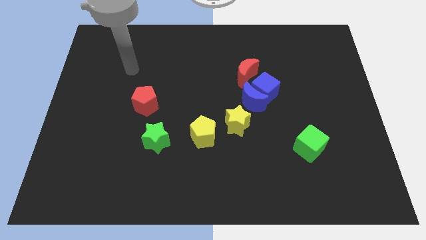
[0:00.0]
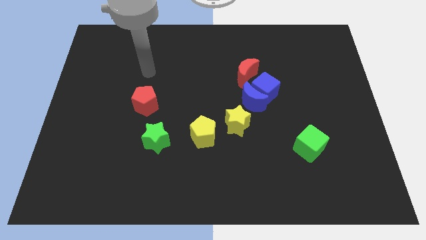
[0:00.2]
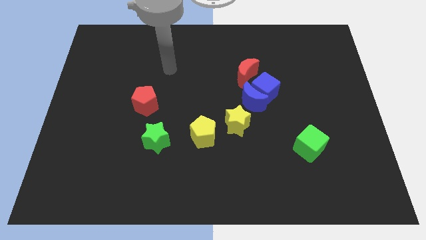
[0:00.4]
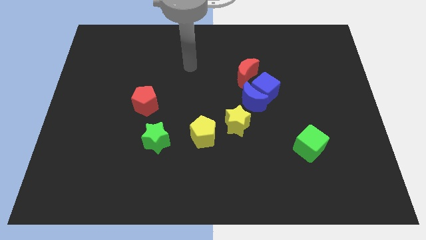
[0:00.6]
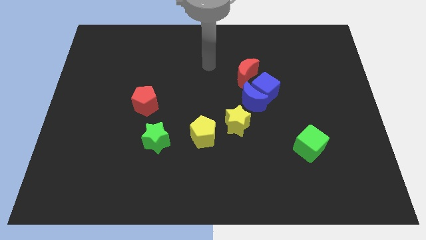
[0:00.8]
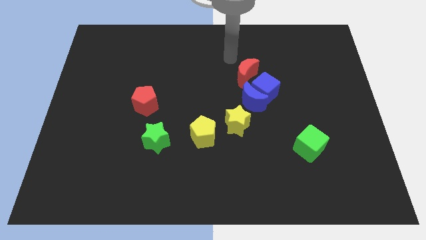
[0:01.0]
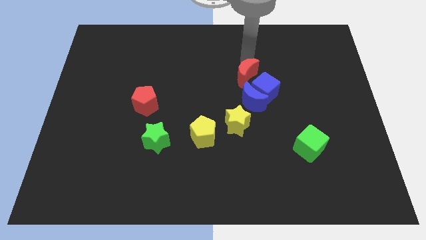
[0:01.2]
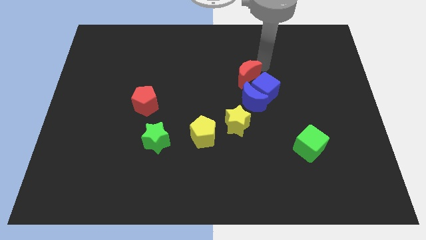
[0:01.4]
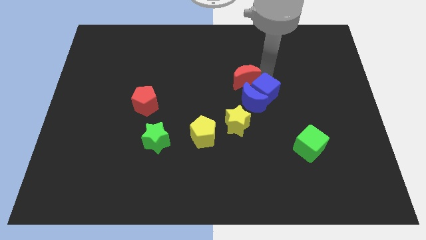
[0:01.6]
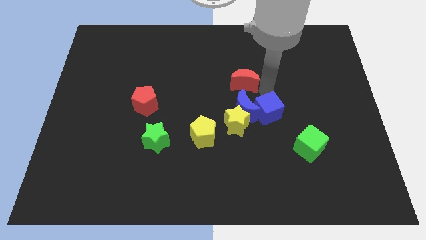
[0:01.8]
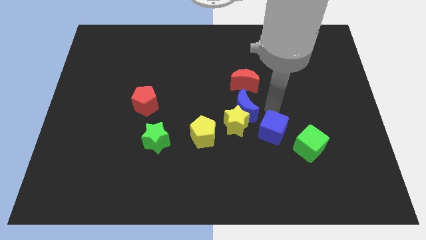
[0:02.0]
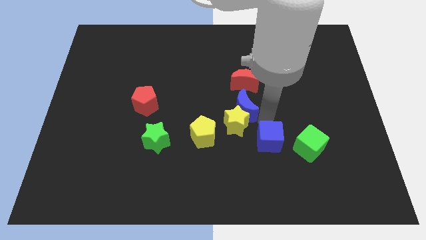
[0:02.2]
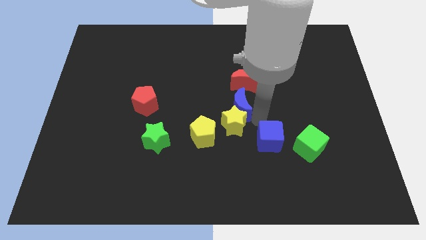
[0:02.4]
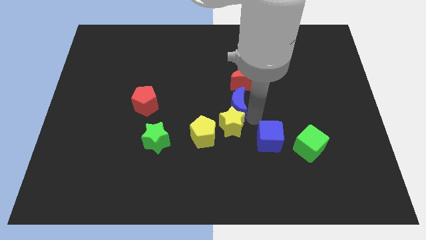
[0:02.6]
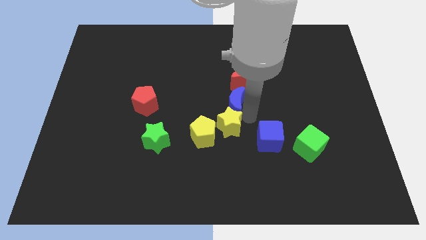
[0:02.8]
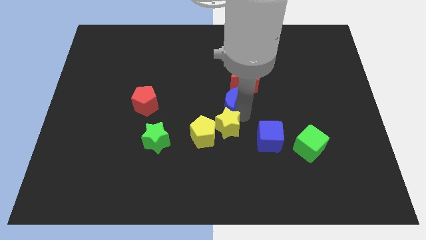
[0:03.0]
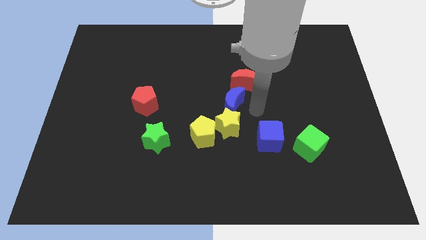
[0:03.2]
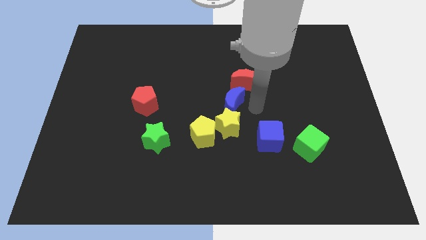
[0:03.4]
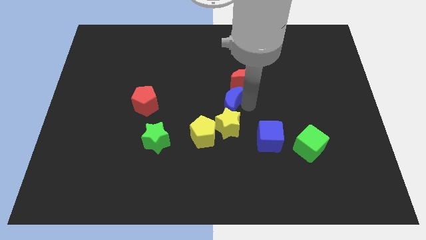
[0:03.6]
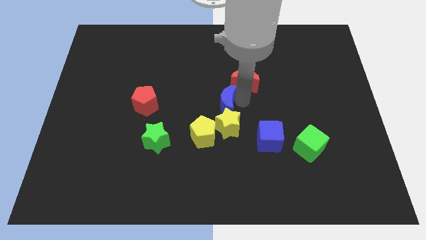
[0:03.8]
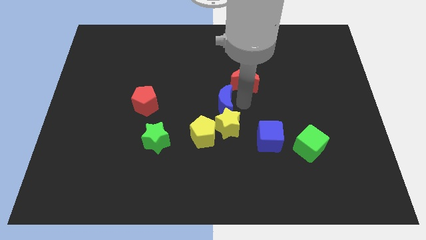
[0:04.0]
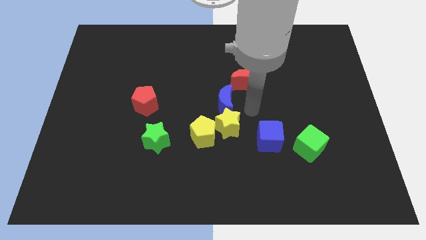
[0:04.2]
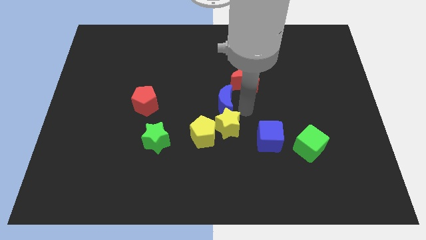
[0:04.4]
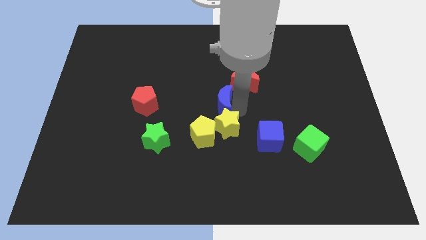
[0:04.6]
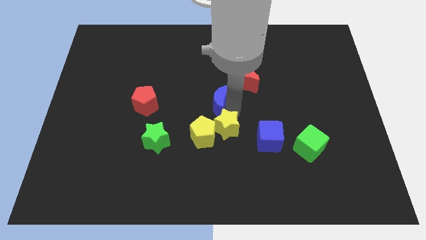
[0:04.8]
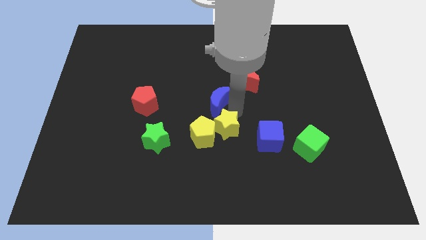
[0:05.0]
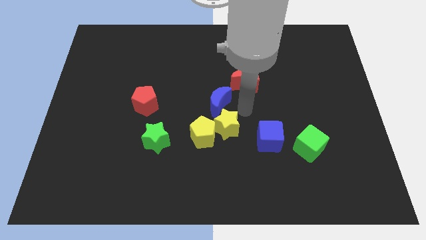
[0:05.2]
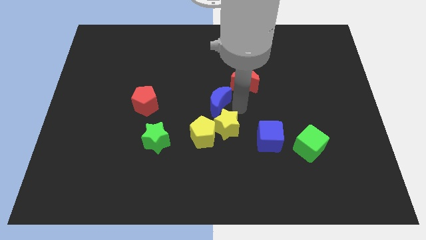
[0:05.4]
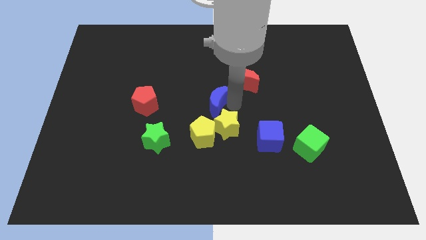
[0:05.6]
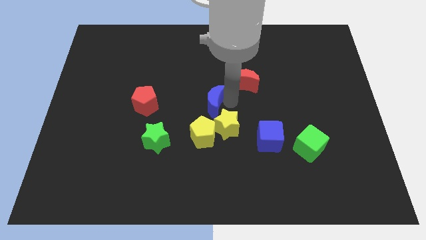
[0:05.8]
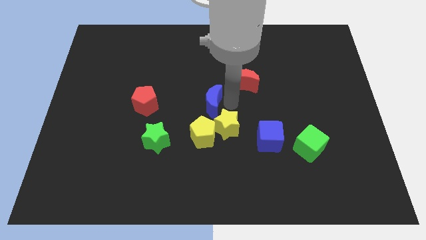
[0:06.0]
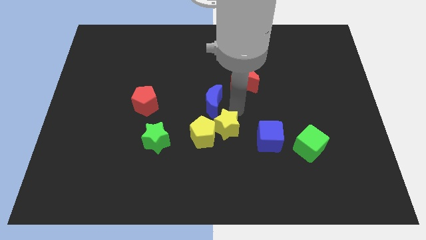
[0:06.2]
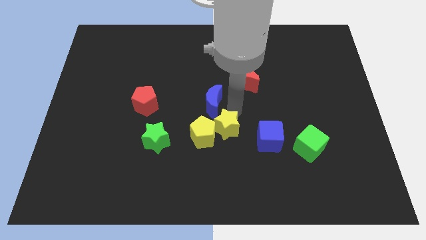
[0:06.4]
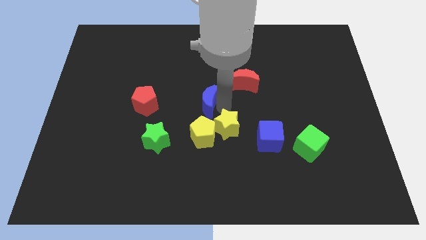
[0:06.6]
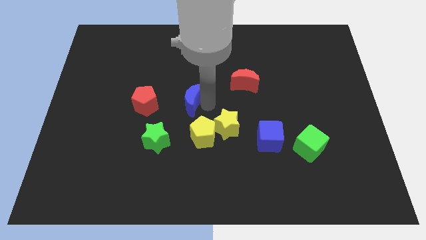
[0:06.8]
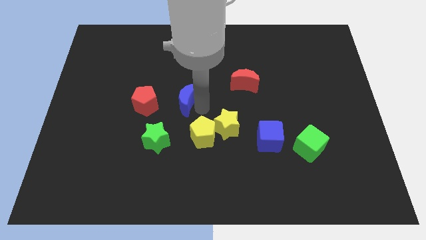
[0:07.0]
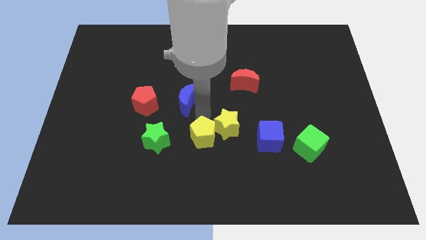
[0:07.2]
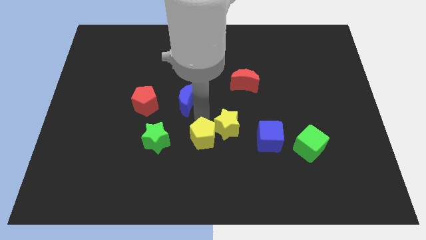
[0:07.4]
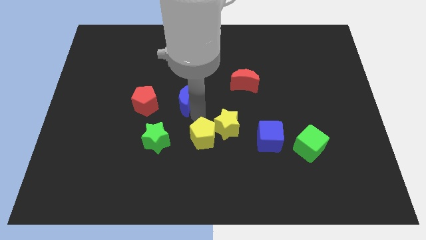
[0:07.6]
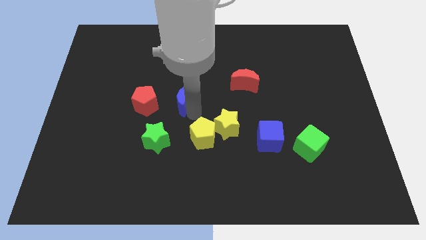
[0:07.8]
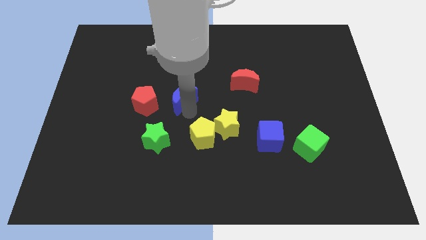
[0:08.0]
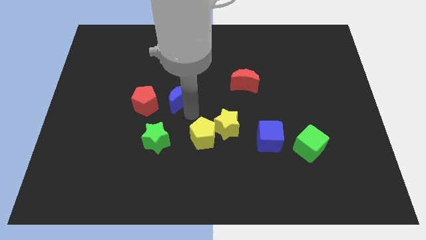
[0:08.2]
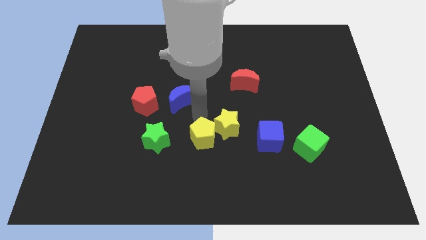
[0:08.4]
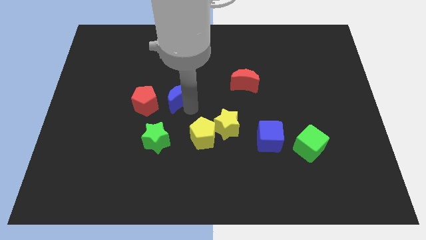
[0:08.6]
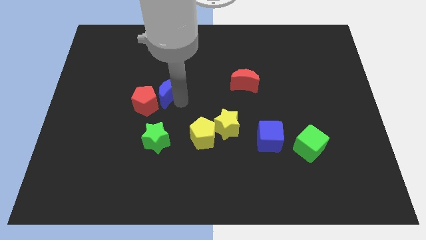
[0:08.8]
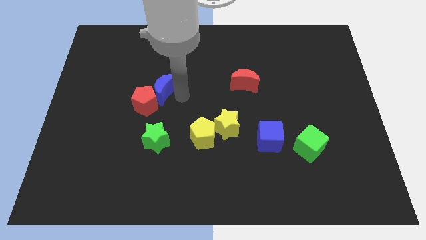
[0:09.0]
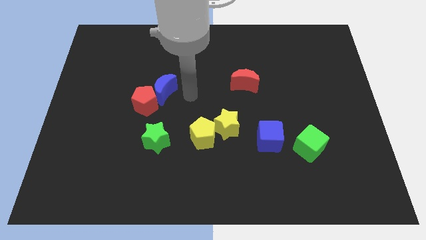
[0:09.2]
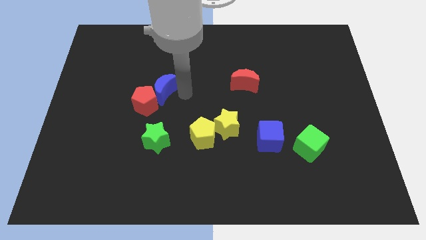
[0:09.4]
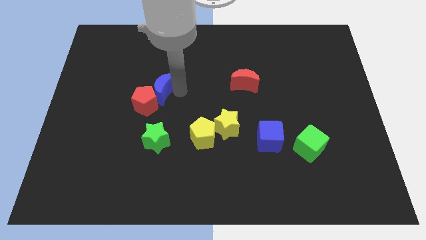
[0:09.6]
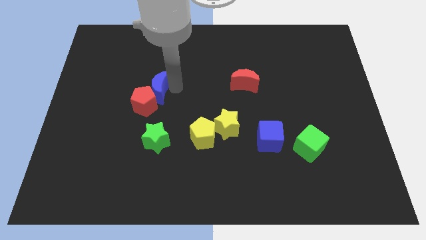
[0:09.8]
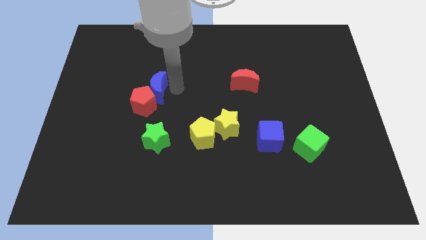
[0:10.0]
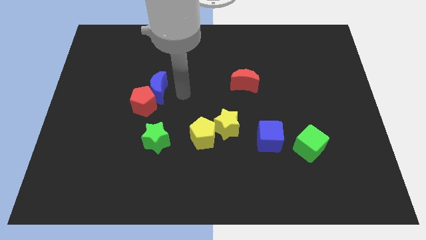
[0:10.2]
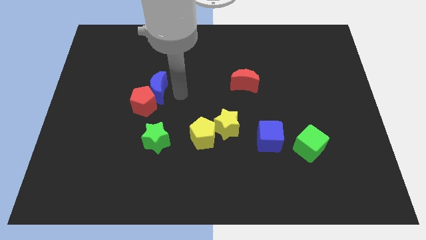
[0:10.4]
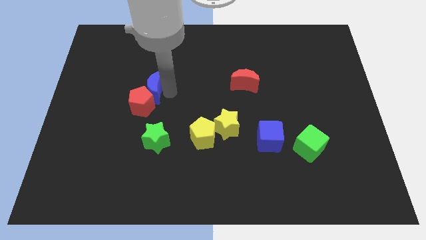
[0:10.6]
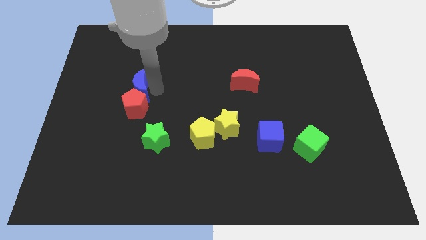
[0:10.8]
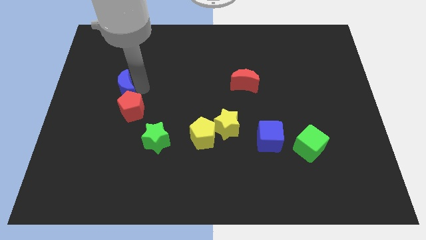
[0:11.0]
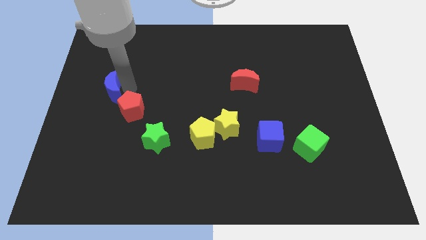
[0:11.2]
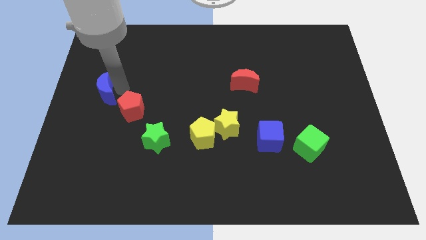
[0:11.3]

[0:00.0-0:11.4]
move the blue moon to the center left

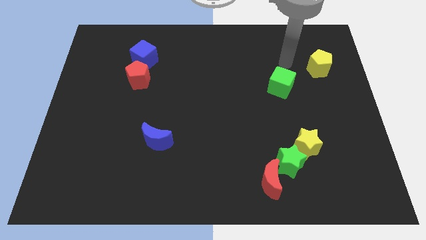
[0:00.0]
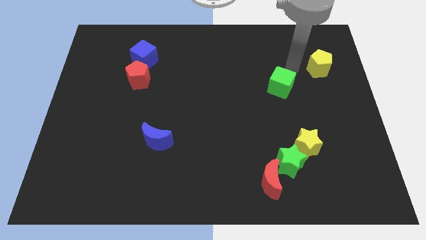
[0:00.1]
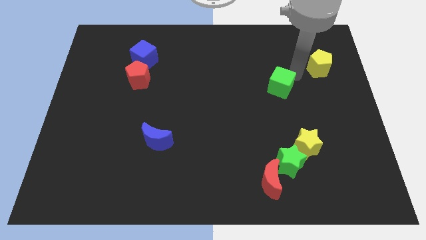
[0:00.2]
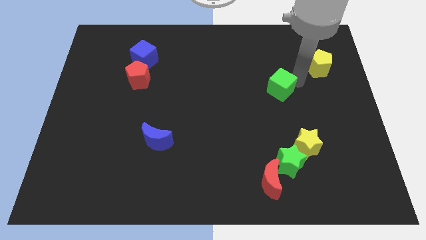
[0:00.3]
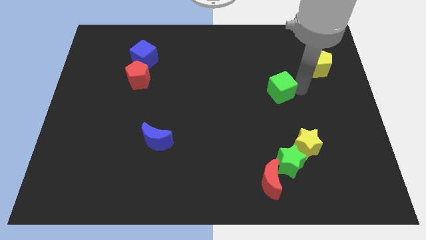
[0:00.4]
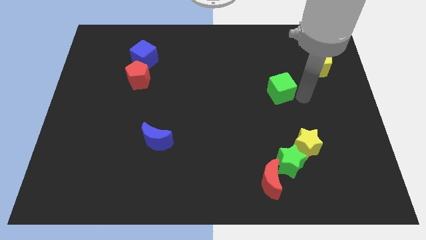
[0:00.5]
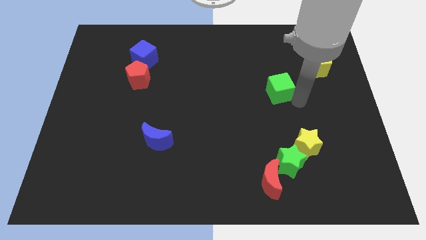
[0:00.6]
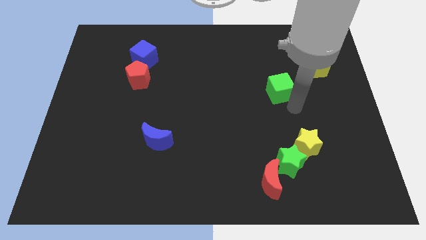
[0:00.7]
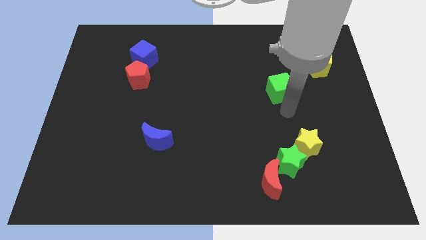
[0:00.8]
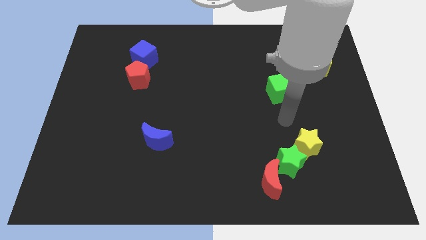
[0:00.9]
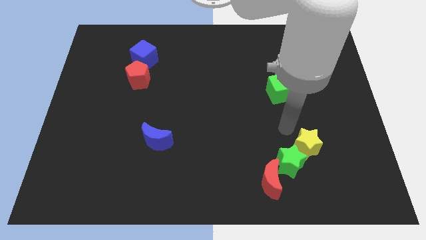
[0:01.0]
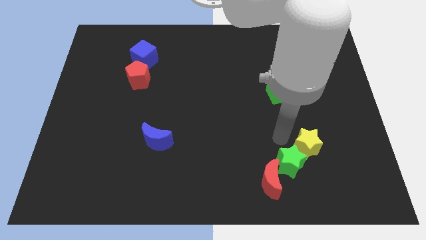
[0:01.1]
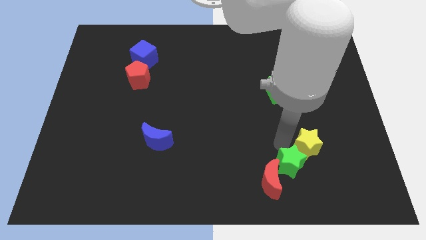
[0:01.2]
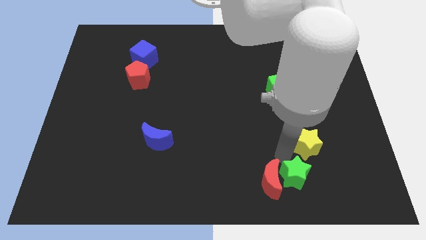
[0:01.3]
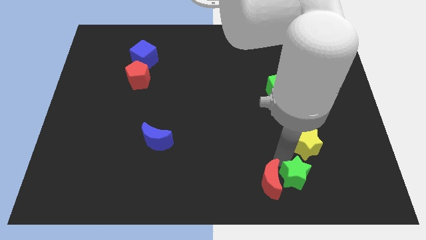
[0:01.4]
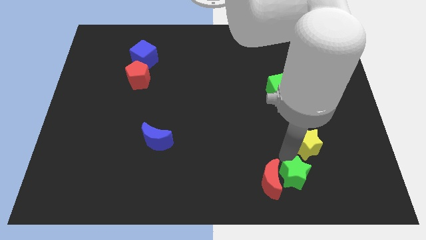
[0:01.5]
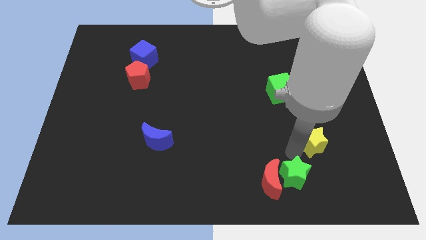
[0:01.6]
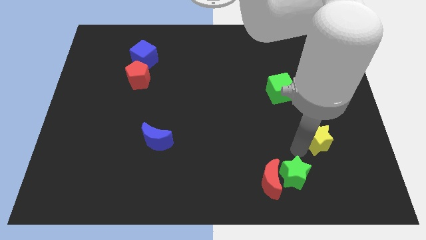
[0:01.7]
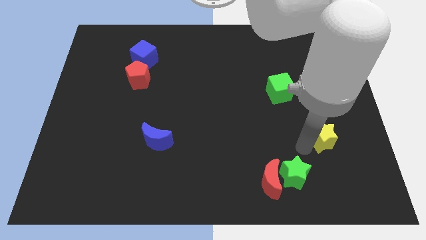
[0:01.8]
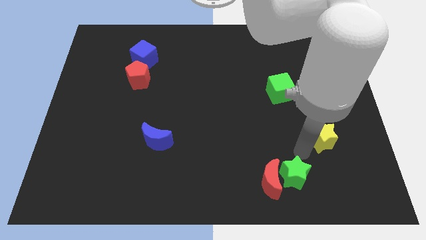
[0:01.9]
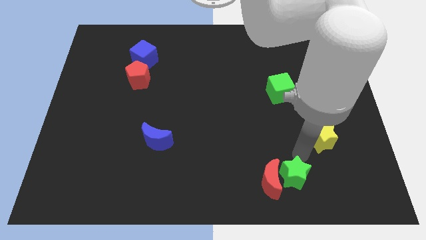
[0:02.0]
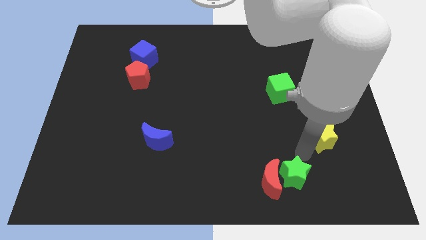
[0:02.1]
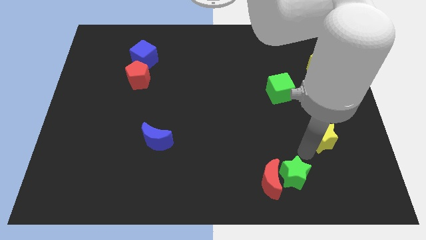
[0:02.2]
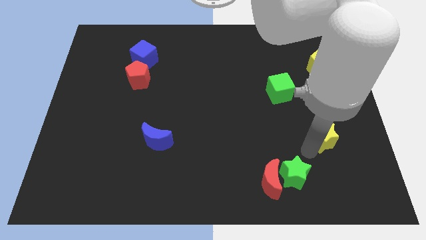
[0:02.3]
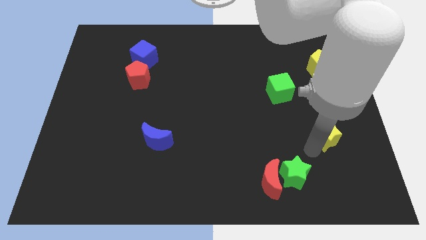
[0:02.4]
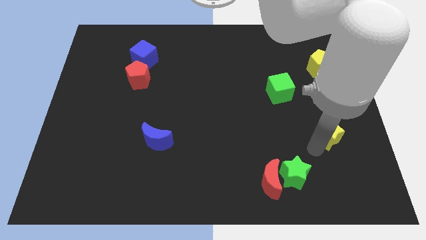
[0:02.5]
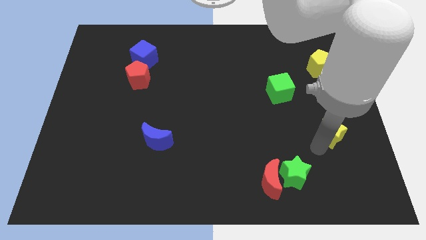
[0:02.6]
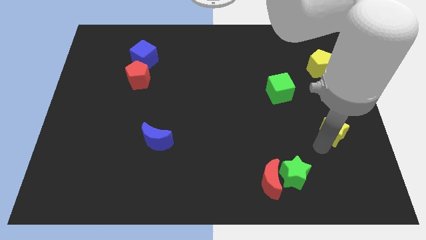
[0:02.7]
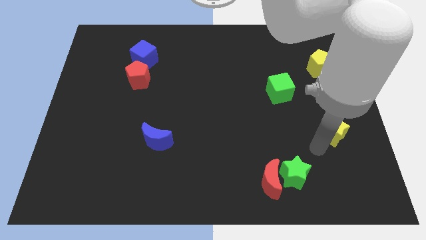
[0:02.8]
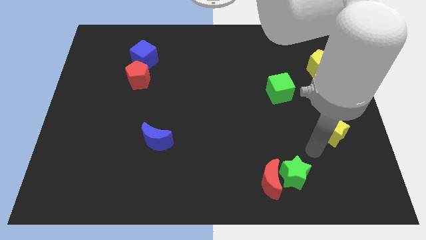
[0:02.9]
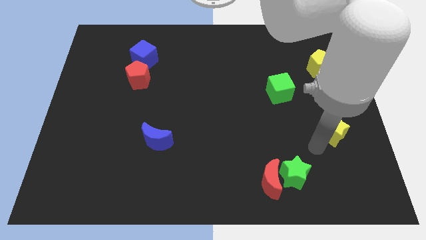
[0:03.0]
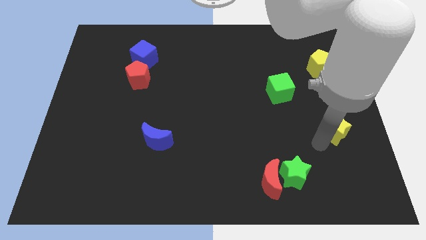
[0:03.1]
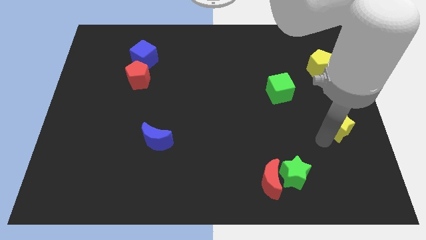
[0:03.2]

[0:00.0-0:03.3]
move the yellow star to the center right
